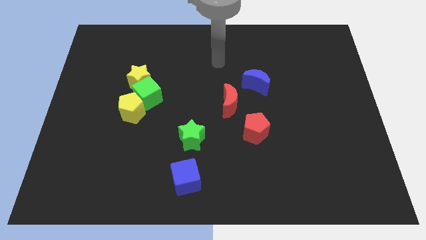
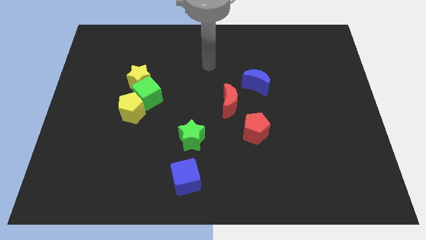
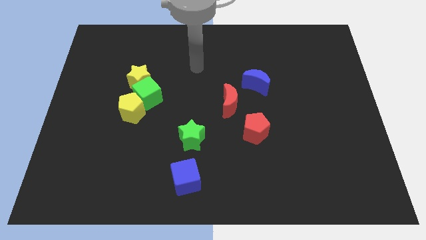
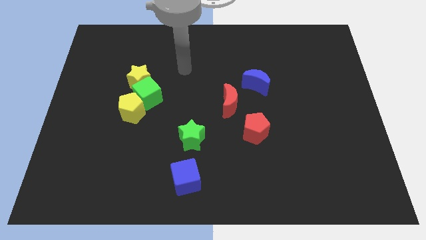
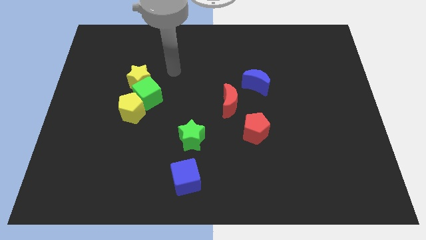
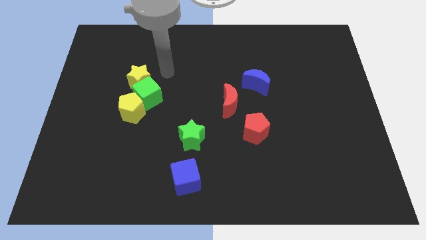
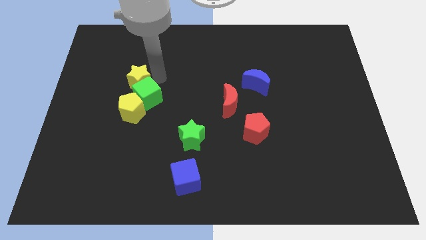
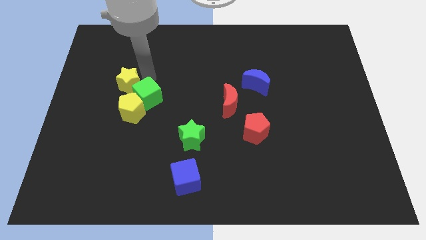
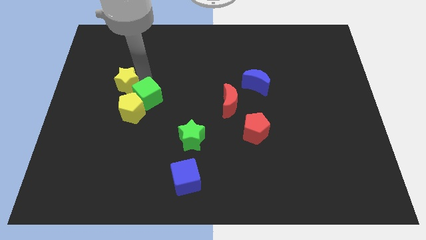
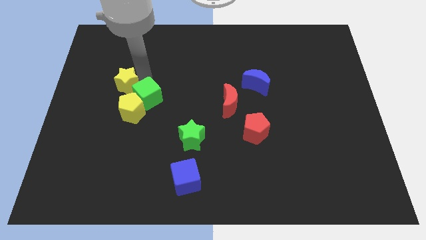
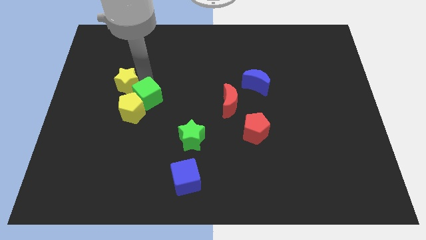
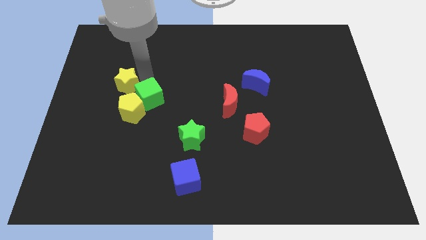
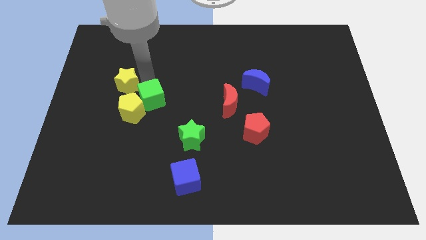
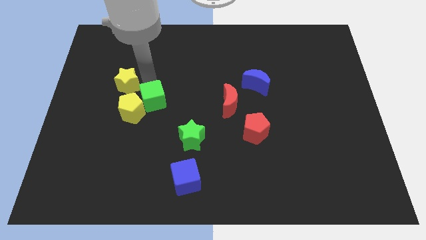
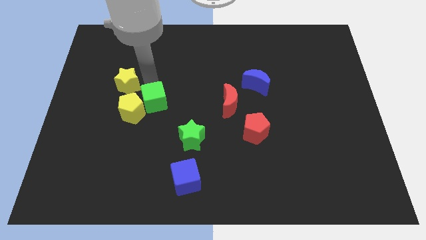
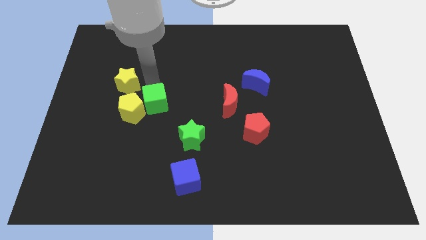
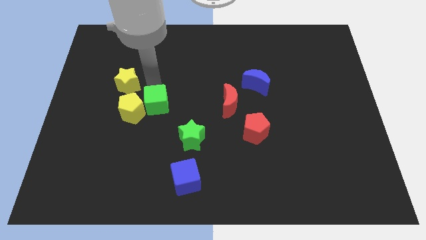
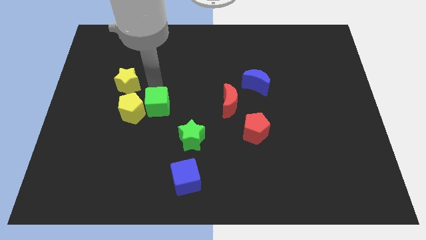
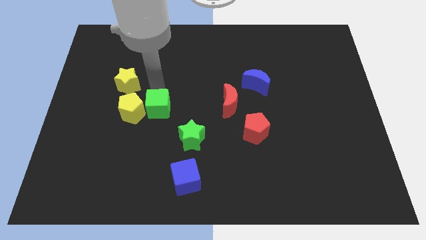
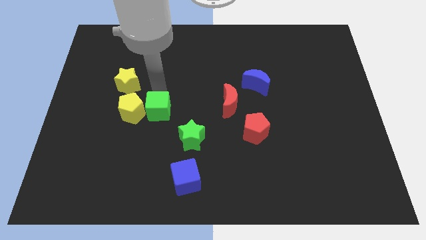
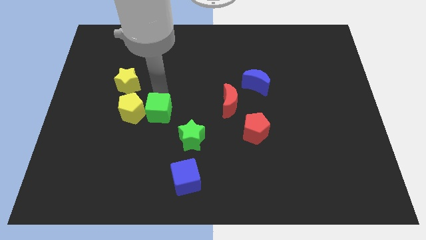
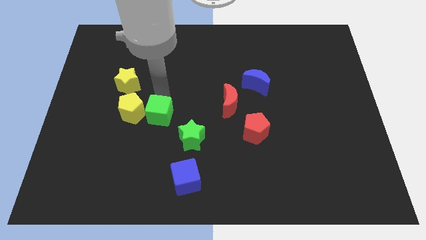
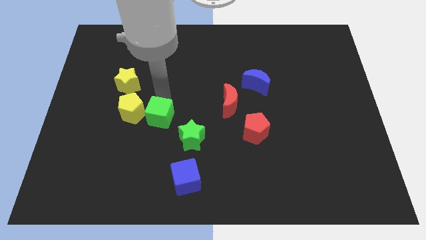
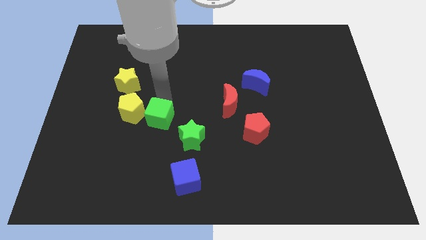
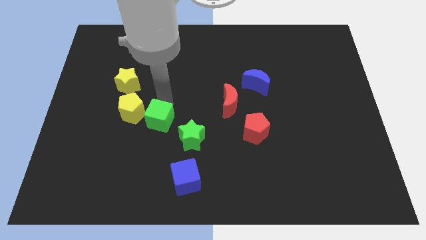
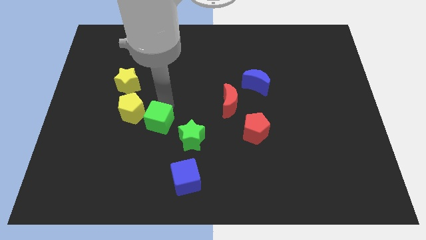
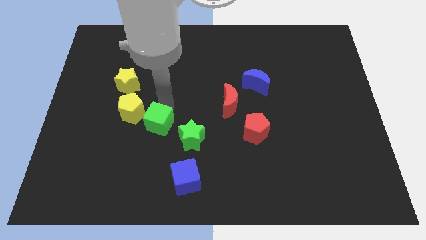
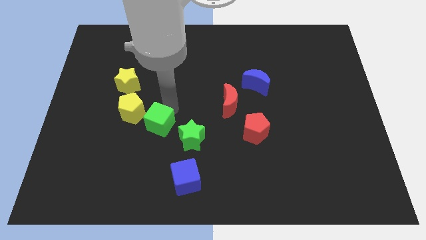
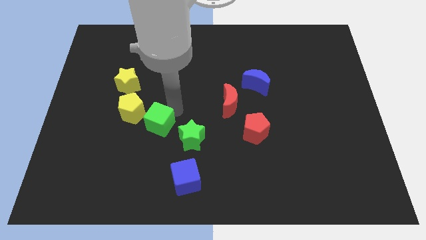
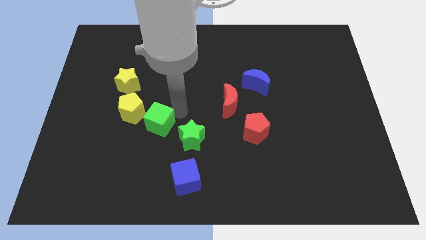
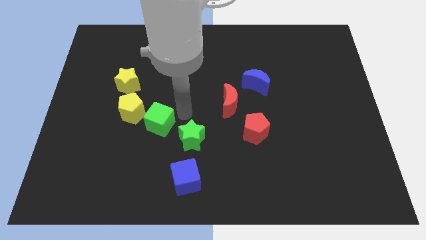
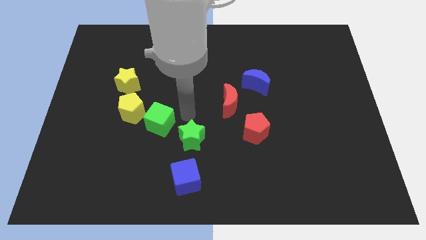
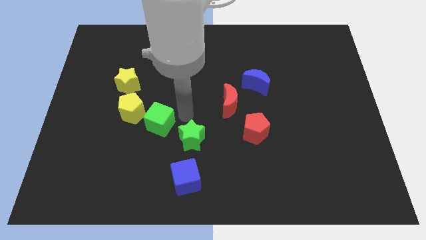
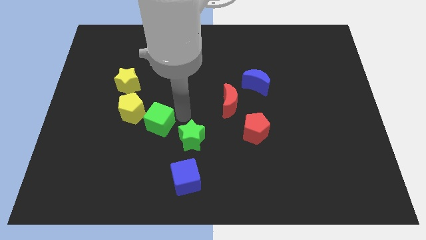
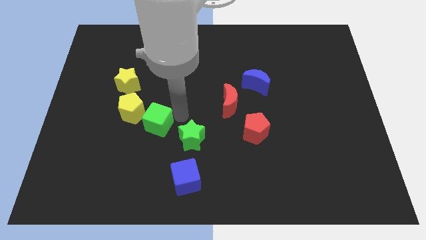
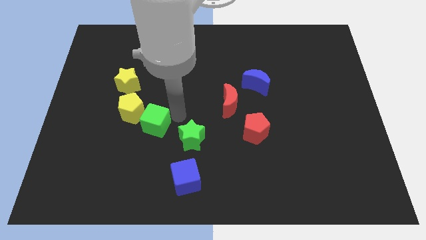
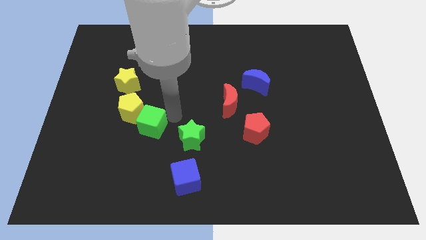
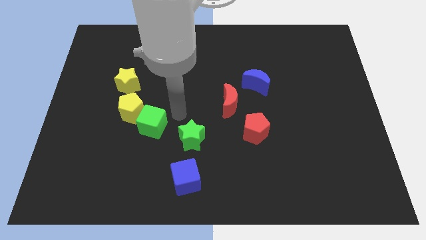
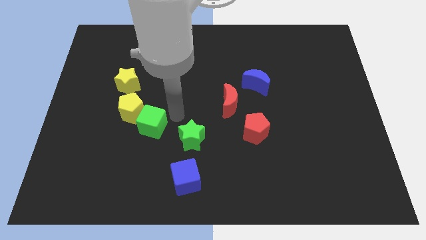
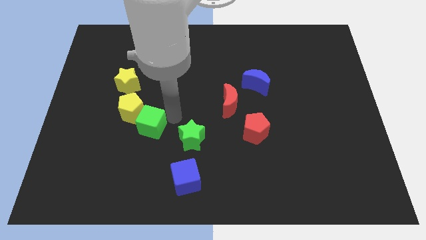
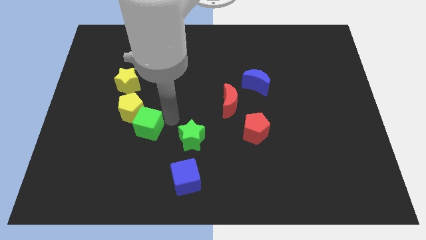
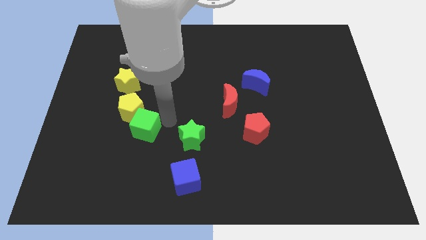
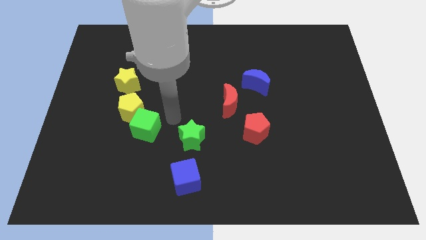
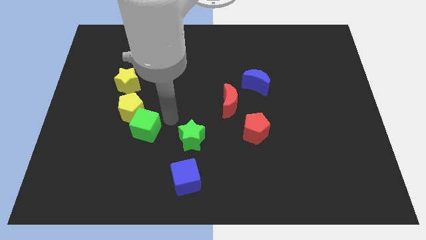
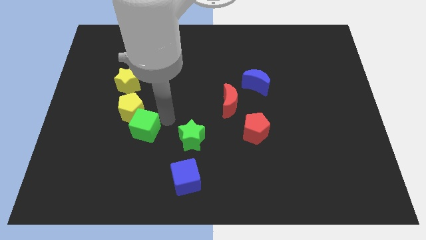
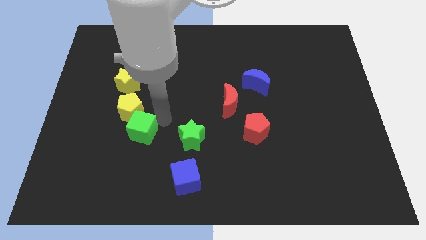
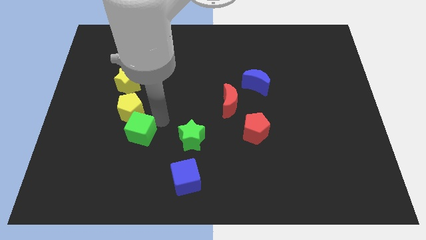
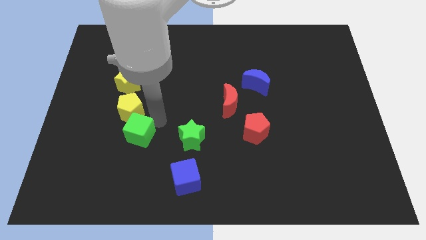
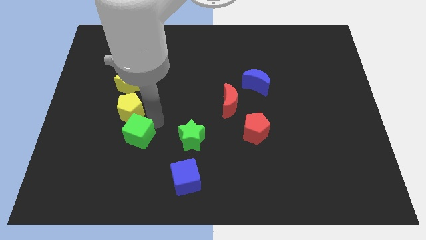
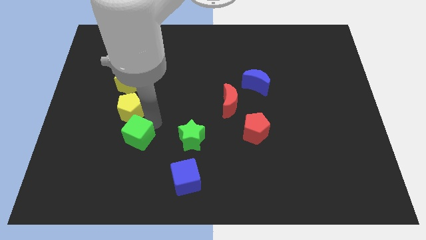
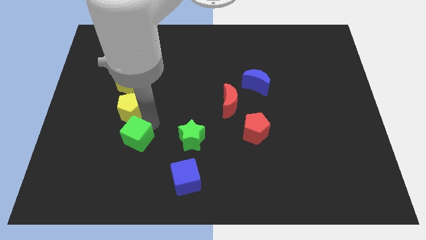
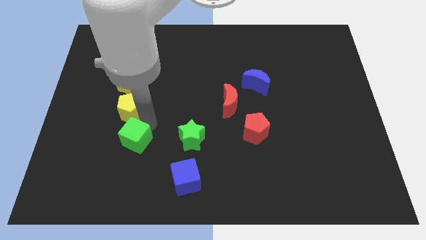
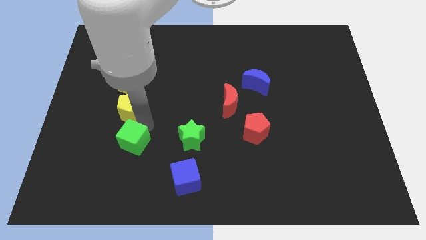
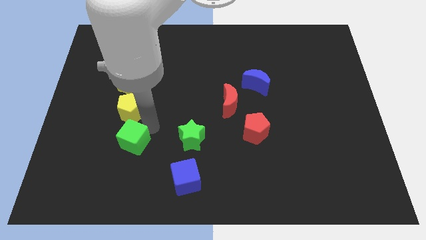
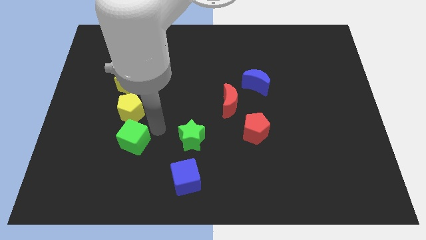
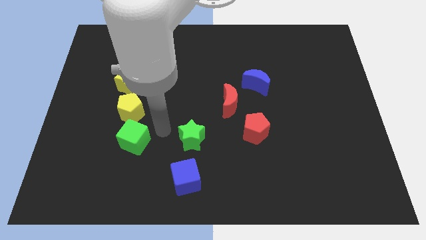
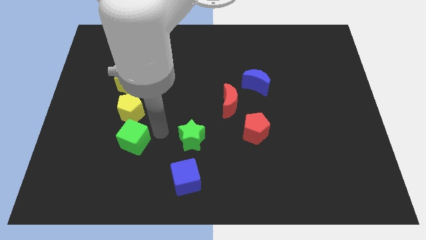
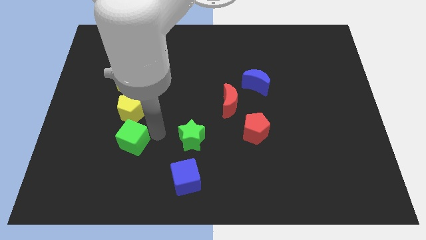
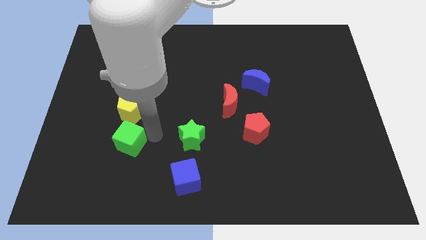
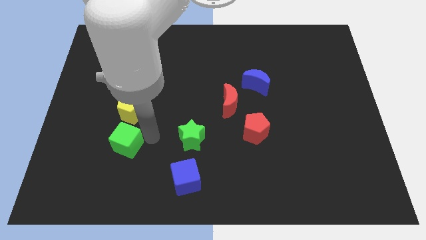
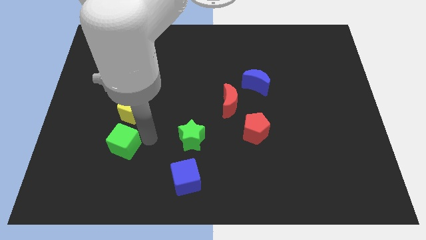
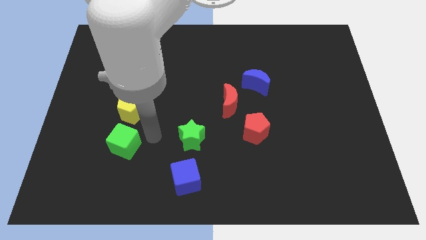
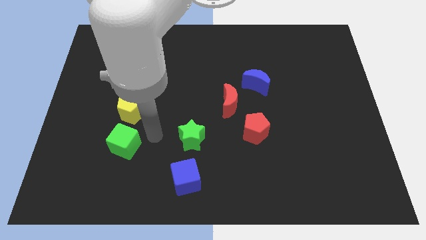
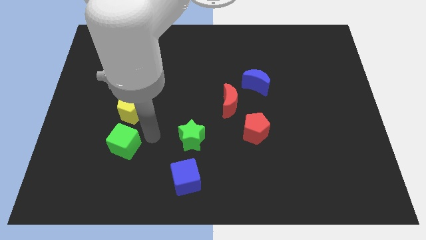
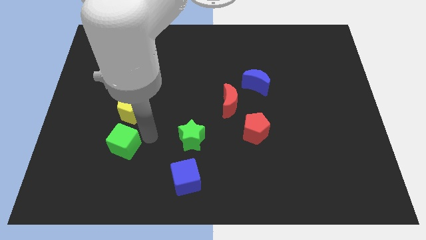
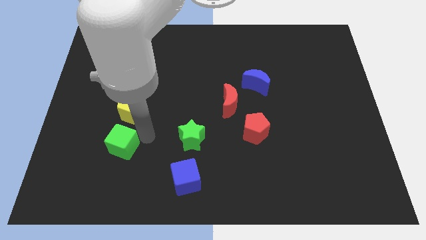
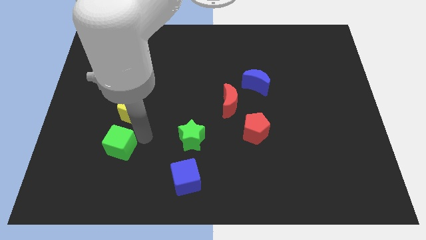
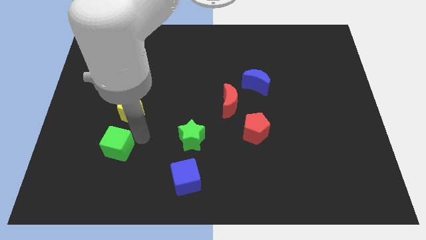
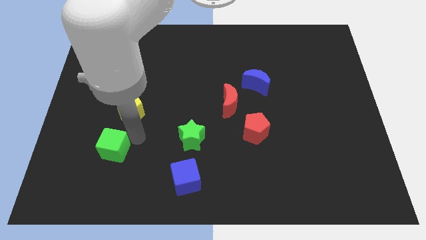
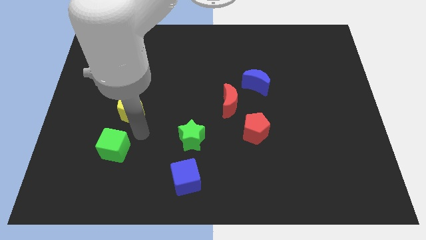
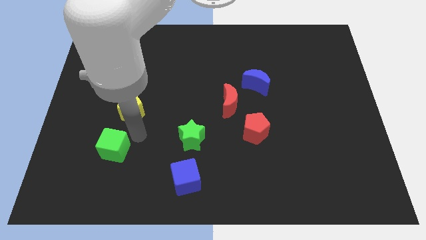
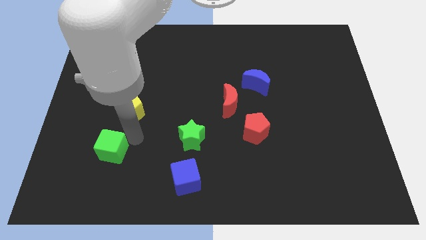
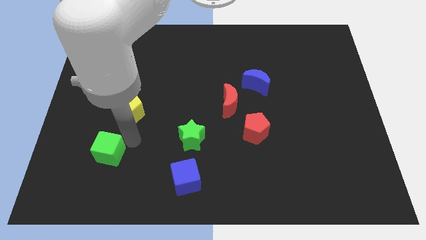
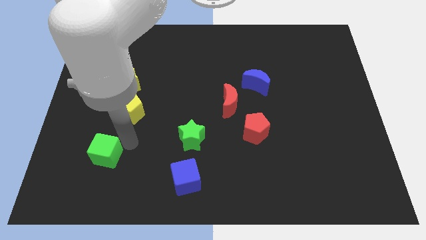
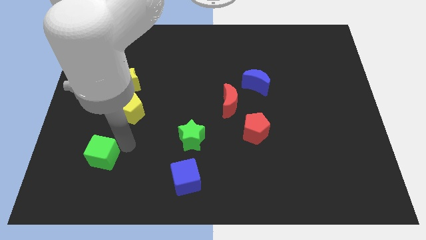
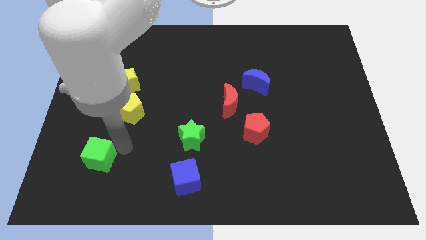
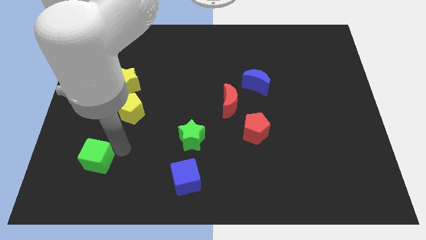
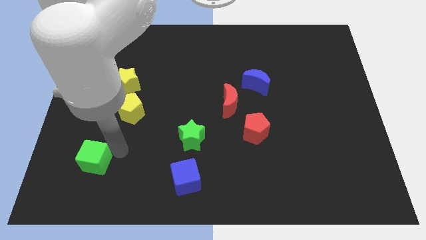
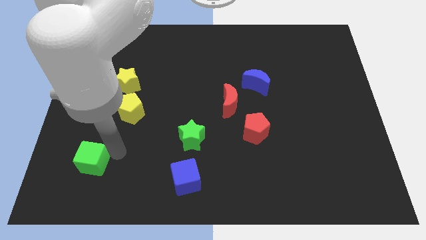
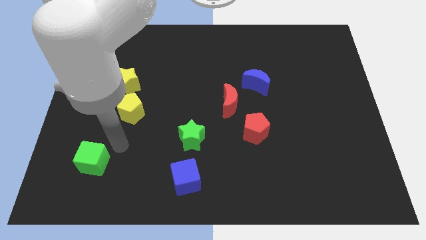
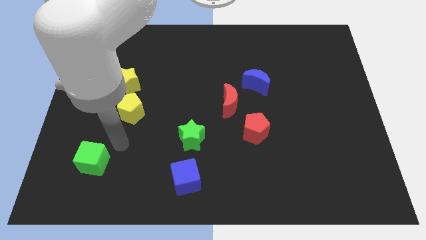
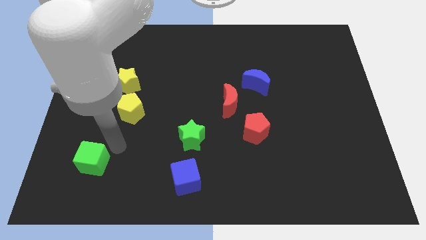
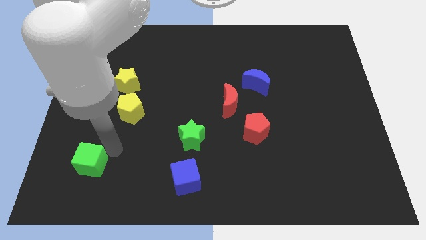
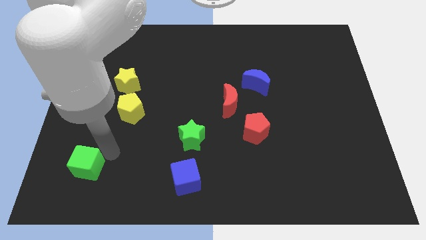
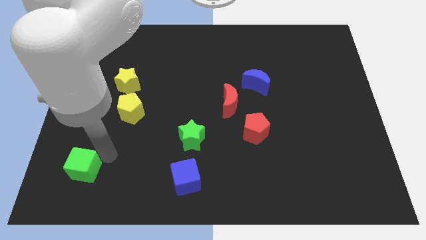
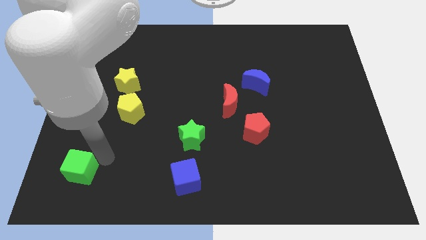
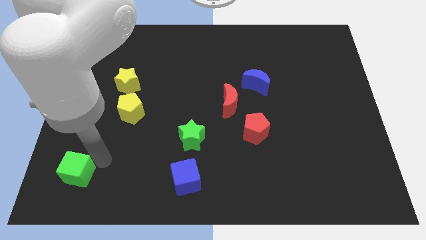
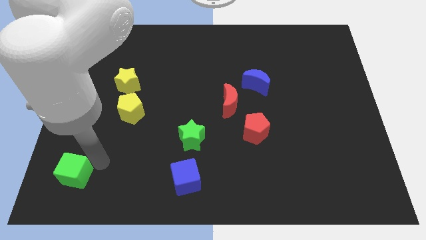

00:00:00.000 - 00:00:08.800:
put the green cube to the bottom left
